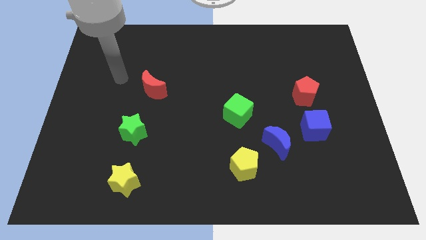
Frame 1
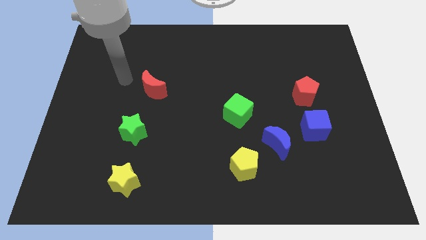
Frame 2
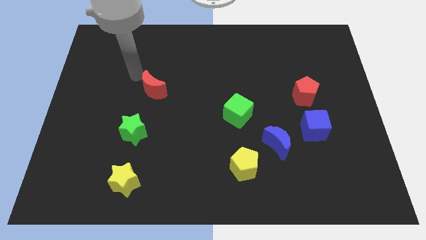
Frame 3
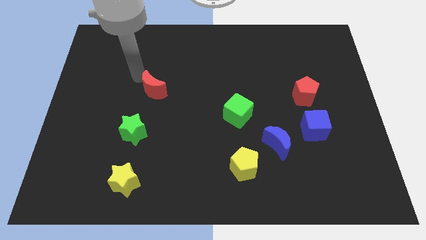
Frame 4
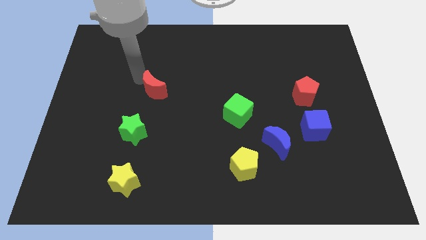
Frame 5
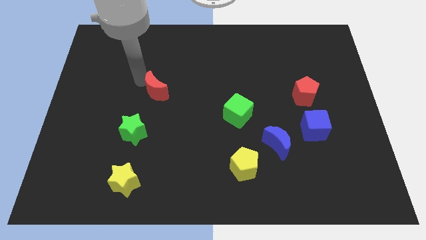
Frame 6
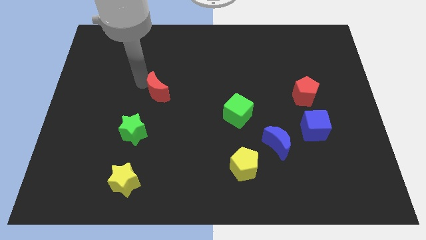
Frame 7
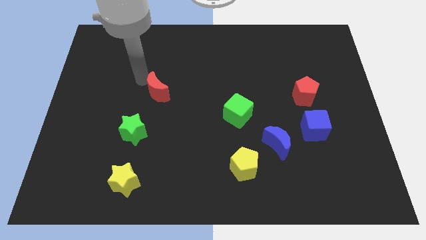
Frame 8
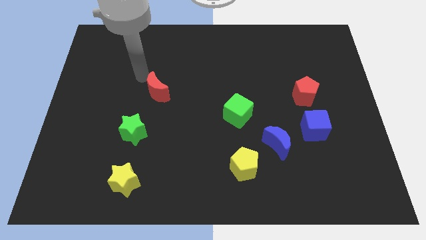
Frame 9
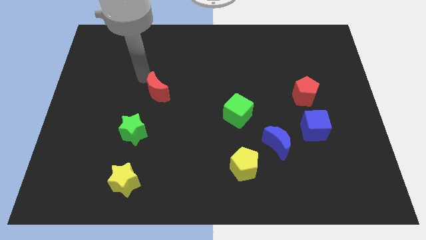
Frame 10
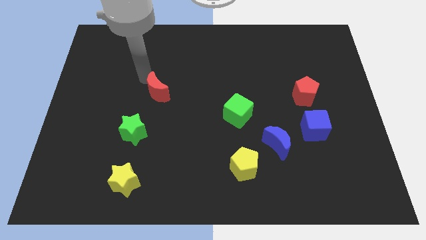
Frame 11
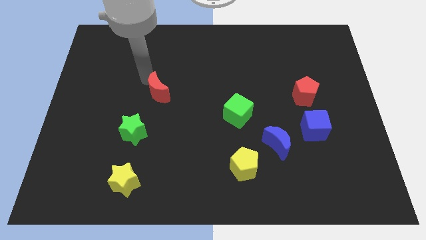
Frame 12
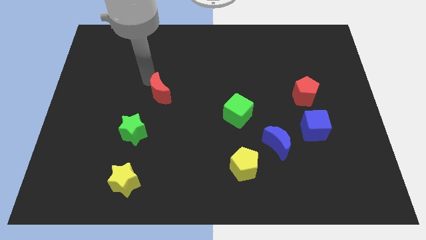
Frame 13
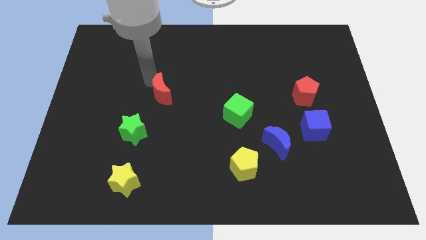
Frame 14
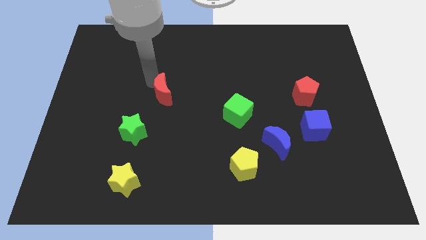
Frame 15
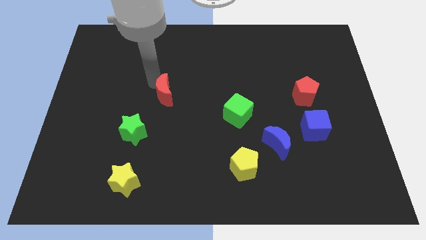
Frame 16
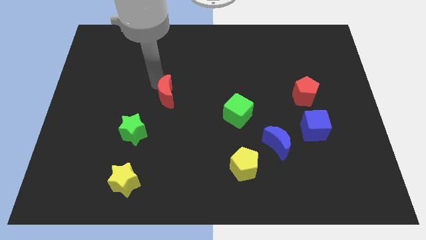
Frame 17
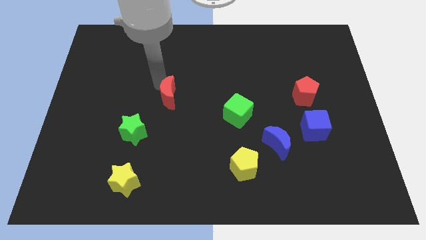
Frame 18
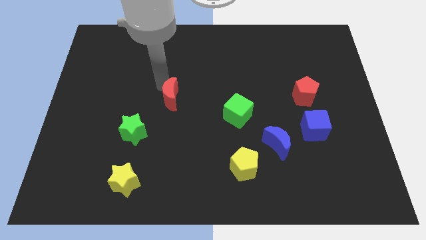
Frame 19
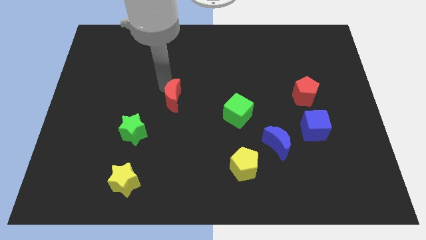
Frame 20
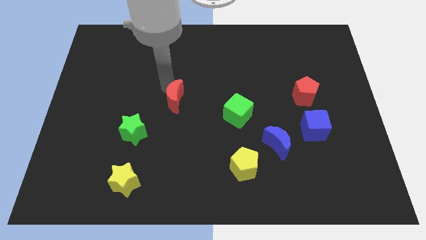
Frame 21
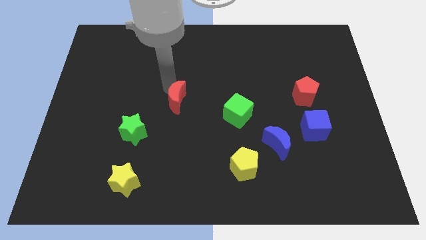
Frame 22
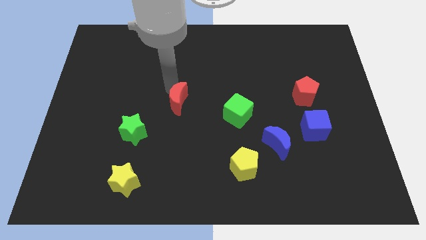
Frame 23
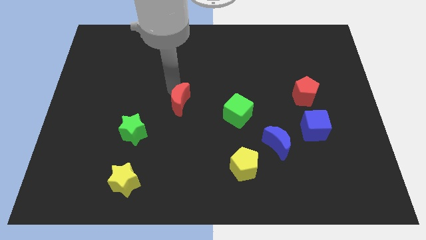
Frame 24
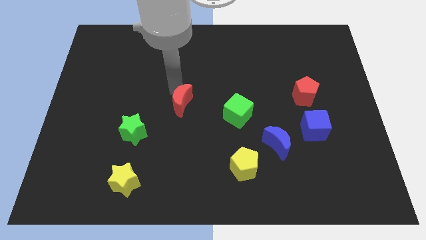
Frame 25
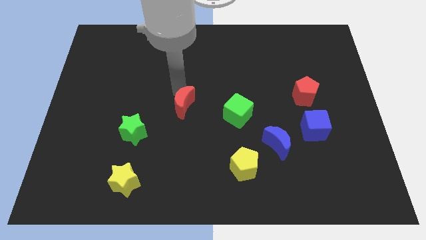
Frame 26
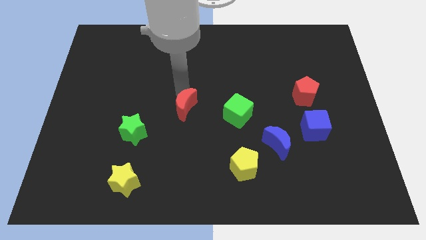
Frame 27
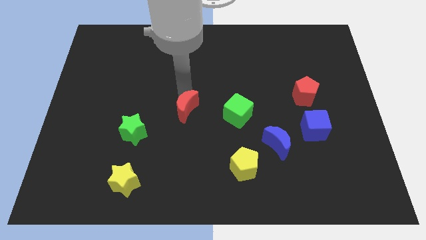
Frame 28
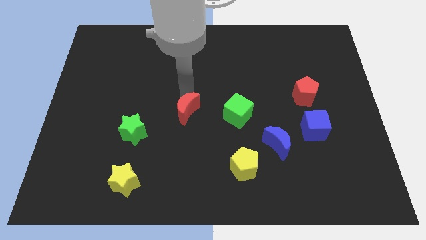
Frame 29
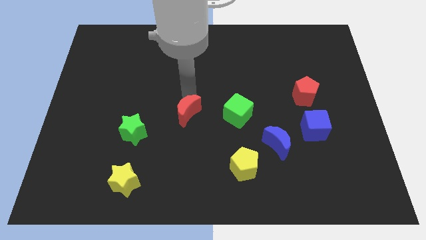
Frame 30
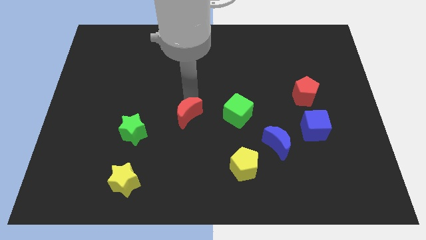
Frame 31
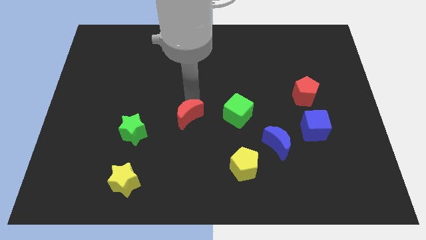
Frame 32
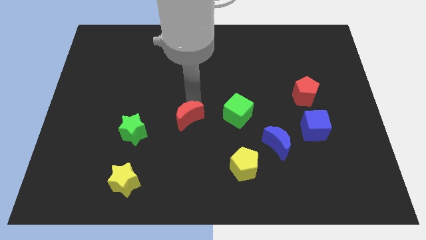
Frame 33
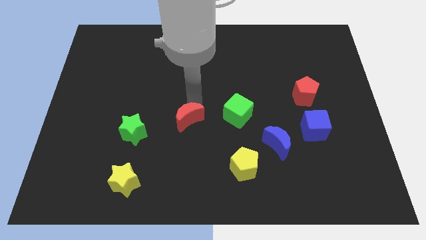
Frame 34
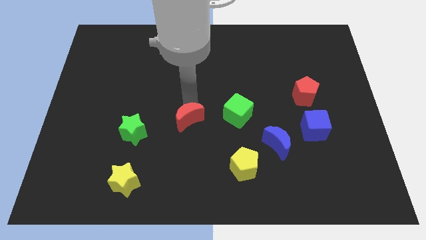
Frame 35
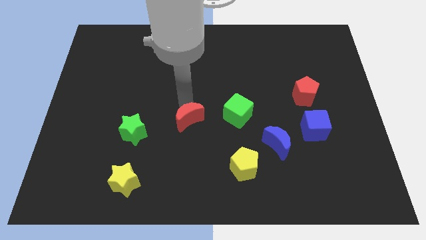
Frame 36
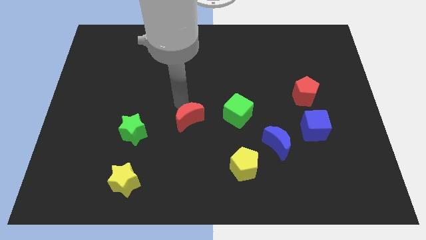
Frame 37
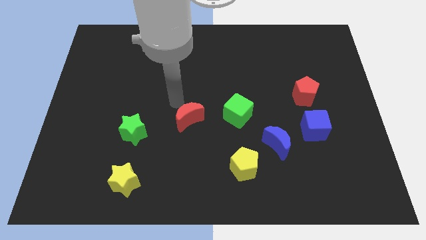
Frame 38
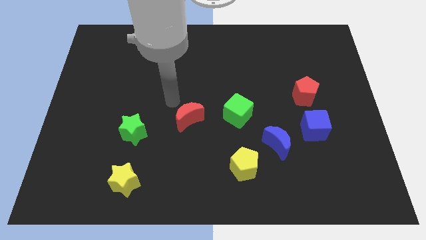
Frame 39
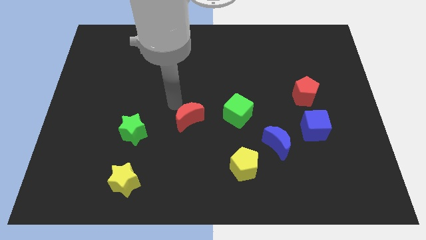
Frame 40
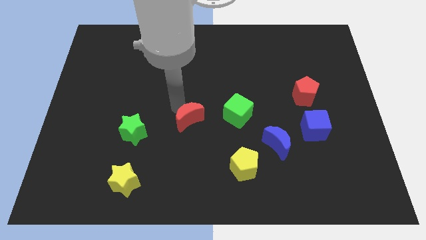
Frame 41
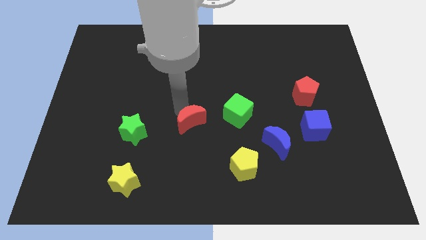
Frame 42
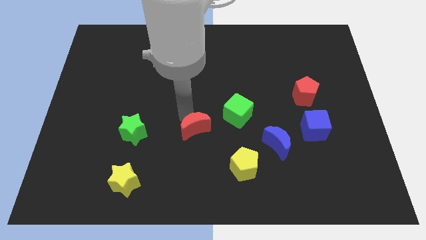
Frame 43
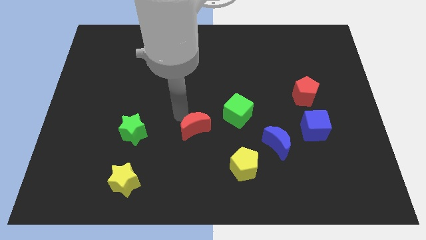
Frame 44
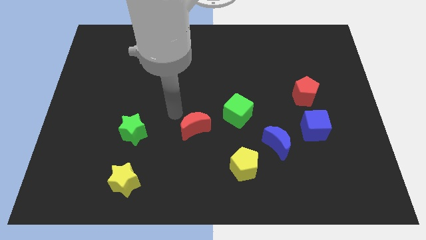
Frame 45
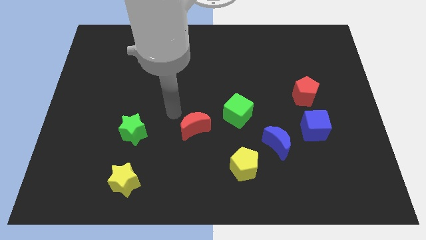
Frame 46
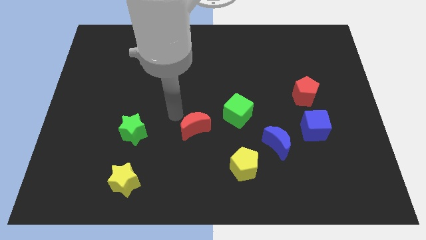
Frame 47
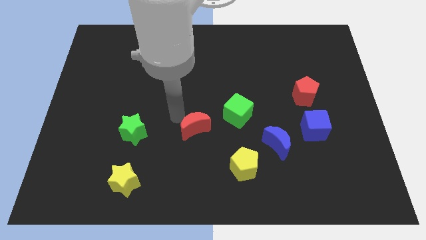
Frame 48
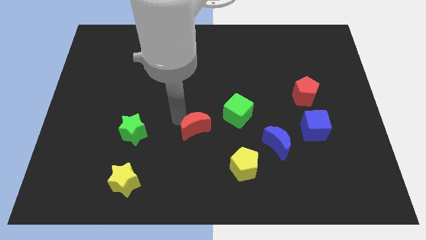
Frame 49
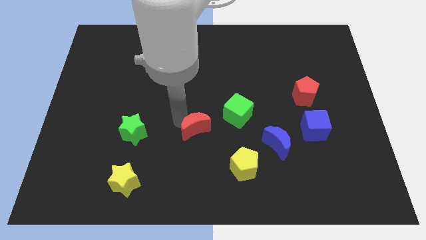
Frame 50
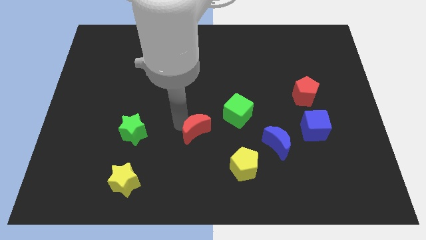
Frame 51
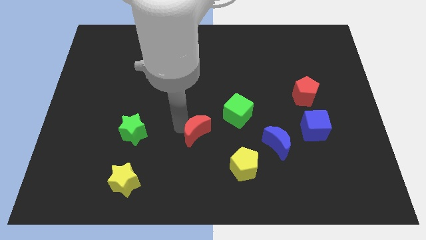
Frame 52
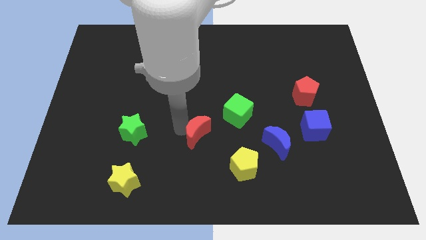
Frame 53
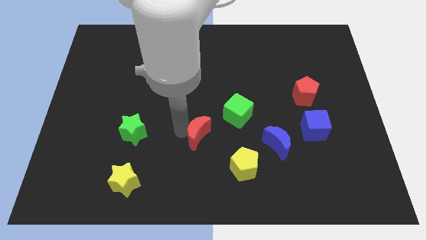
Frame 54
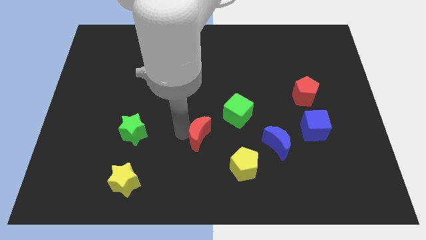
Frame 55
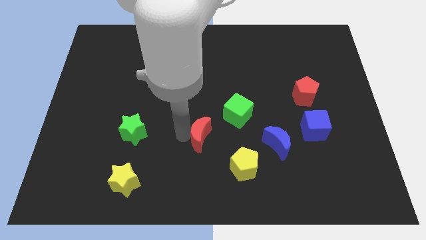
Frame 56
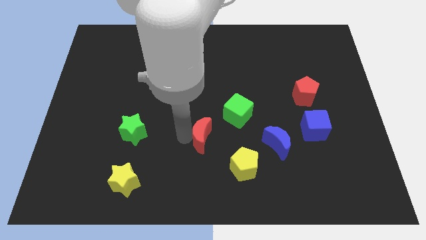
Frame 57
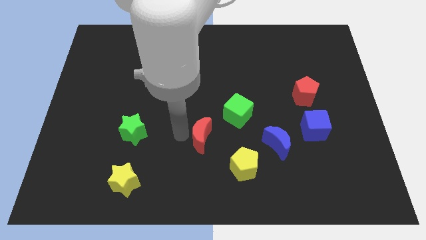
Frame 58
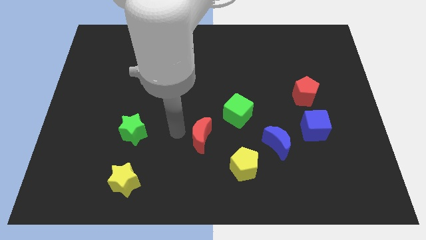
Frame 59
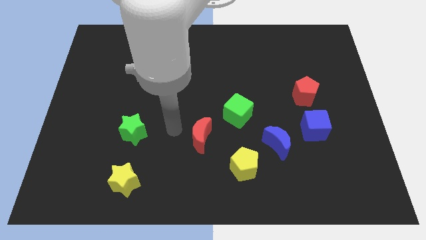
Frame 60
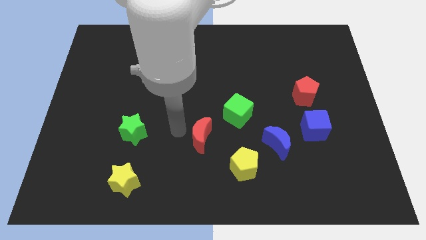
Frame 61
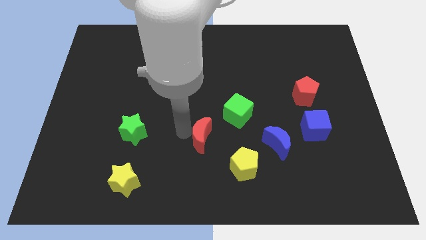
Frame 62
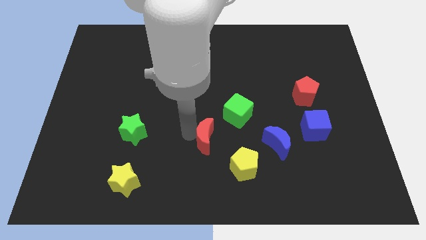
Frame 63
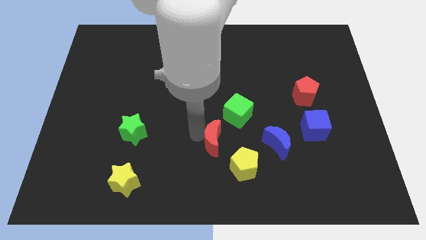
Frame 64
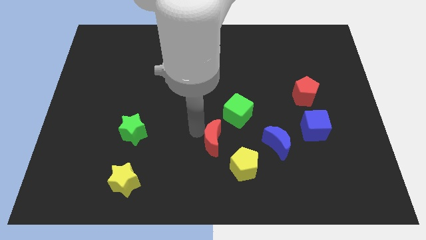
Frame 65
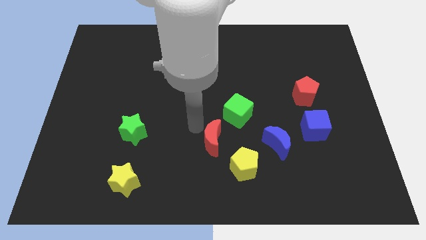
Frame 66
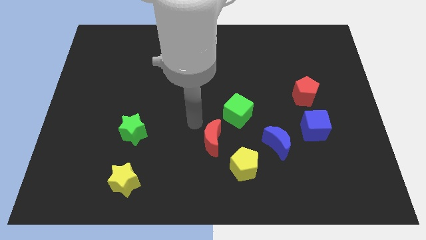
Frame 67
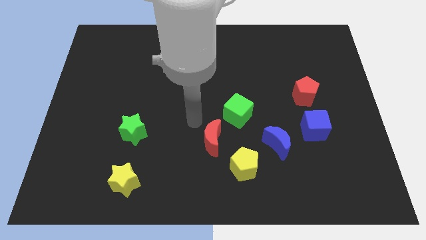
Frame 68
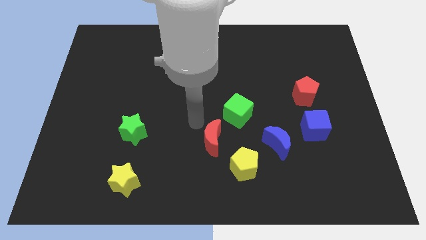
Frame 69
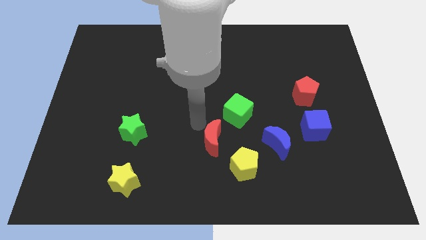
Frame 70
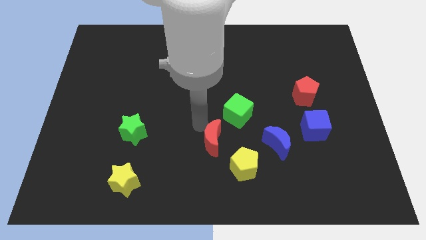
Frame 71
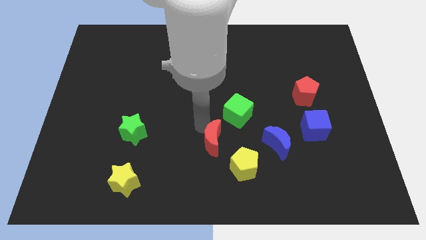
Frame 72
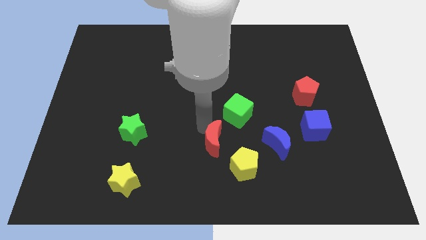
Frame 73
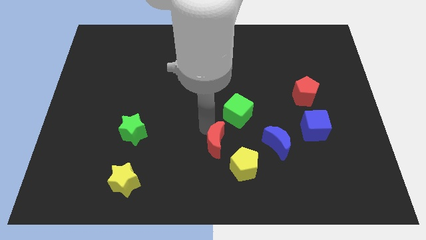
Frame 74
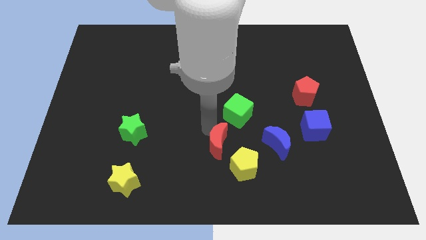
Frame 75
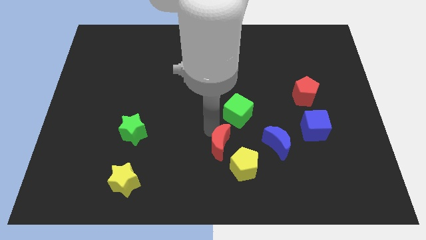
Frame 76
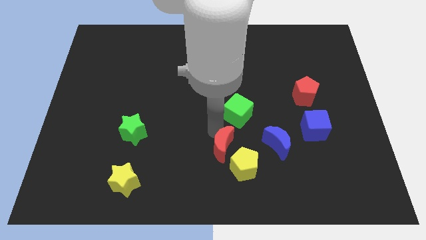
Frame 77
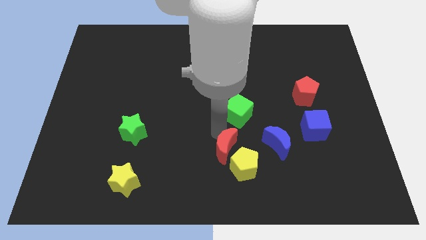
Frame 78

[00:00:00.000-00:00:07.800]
put the red moon towards the yellow pentagon
